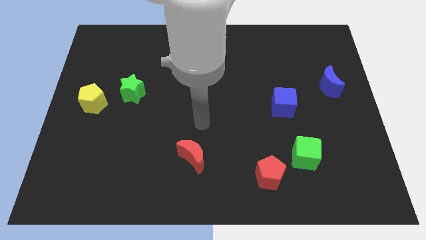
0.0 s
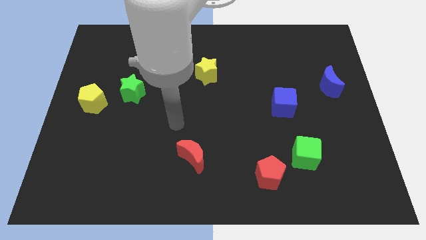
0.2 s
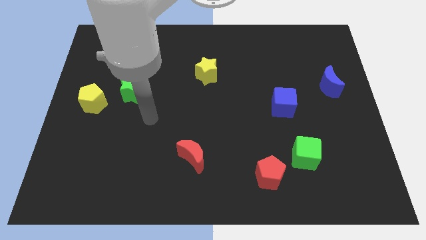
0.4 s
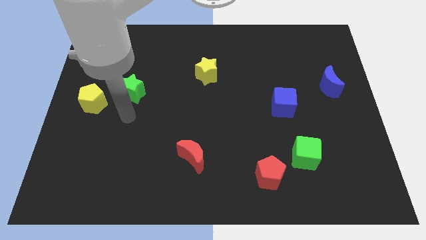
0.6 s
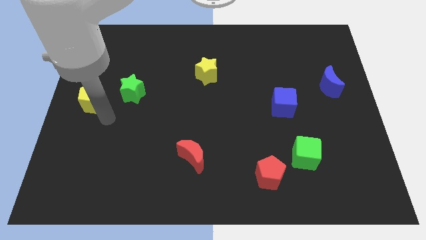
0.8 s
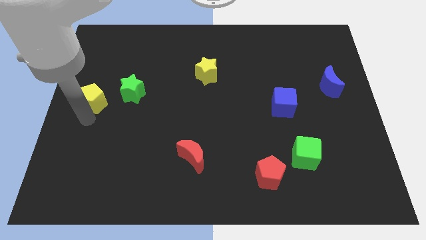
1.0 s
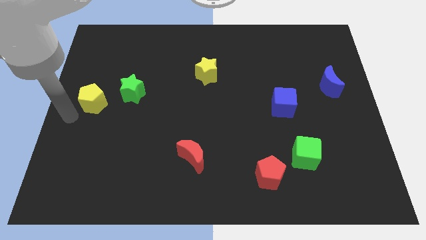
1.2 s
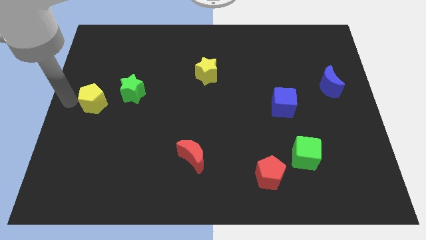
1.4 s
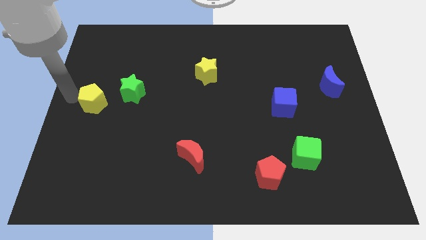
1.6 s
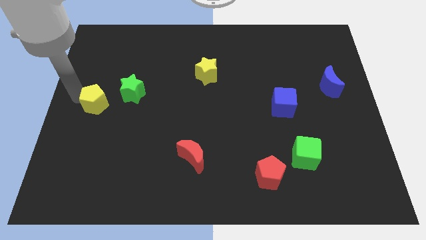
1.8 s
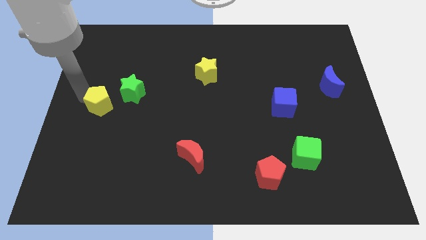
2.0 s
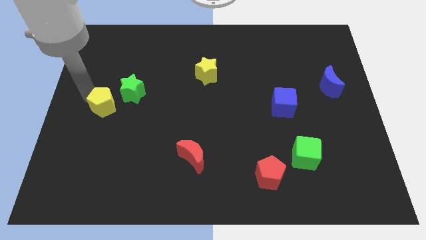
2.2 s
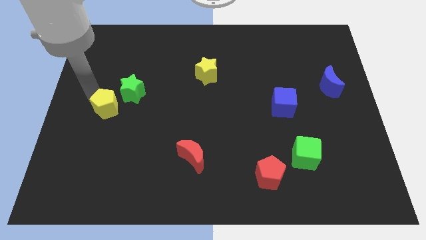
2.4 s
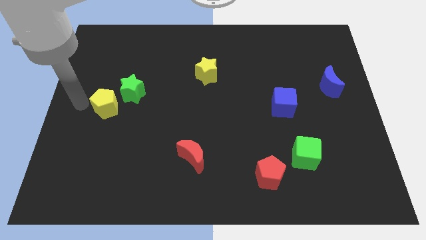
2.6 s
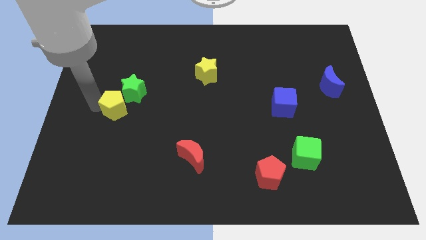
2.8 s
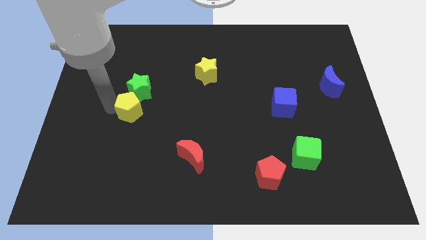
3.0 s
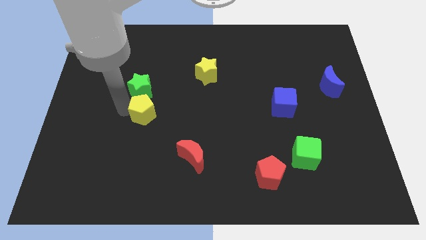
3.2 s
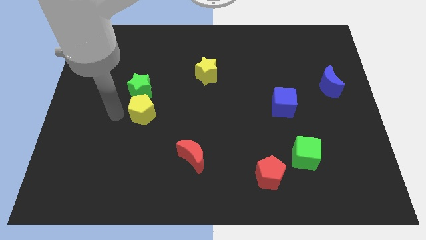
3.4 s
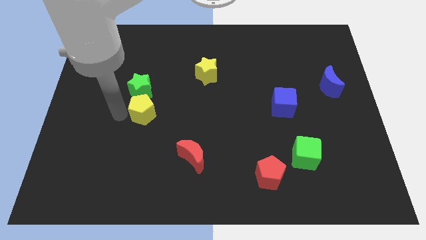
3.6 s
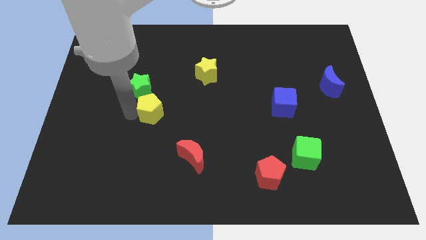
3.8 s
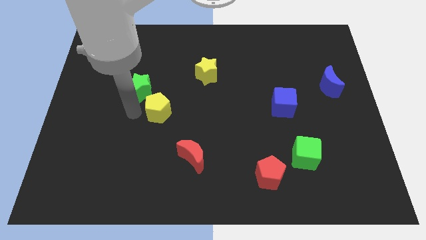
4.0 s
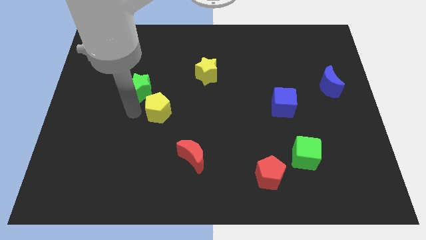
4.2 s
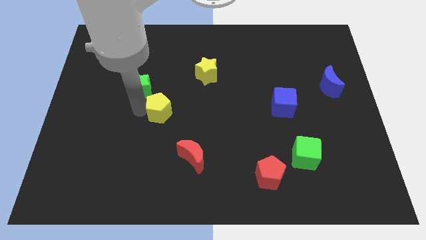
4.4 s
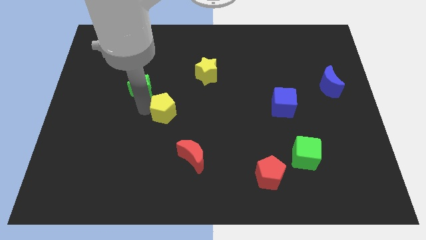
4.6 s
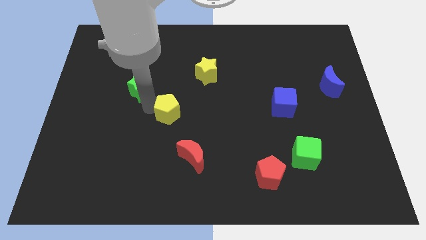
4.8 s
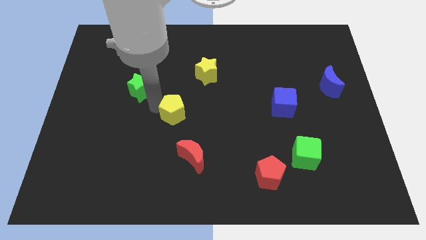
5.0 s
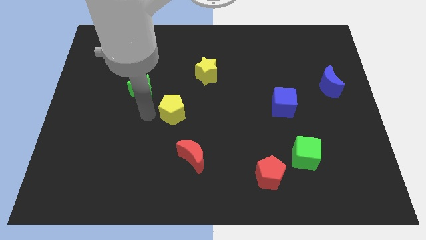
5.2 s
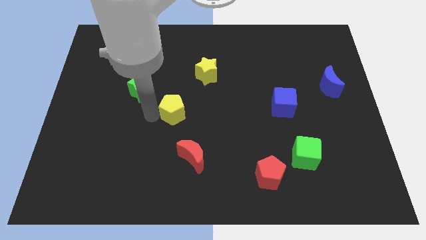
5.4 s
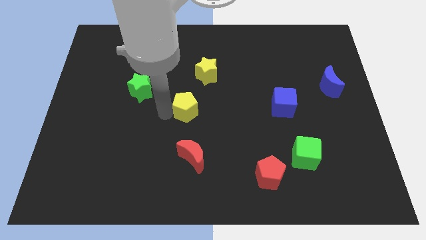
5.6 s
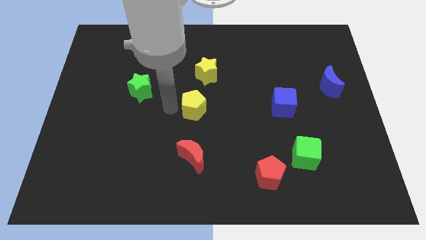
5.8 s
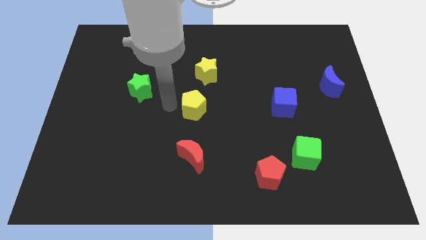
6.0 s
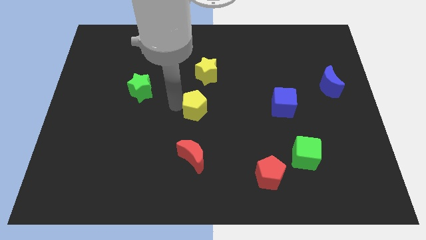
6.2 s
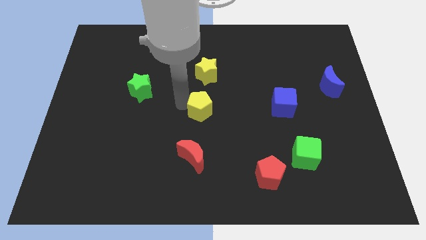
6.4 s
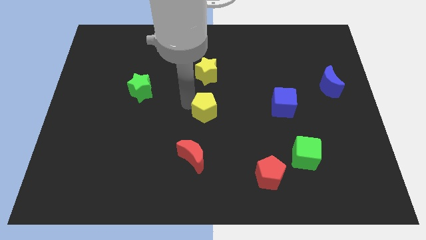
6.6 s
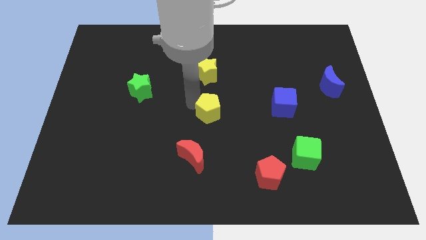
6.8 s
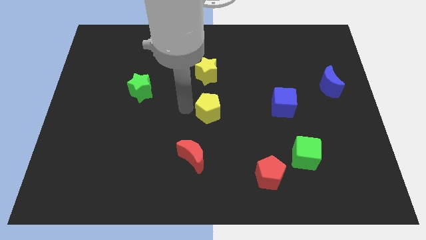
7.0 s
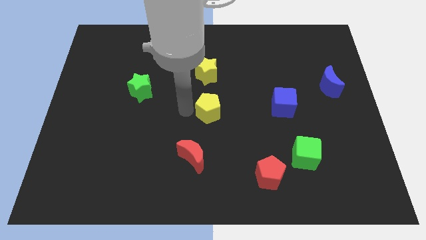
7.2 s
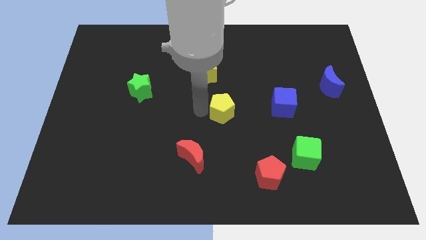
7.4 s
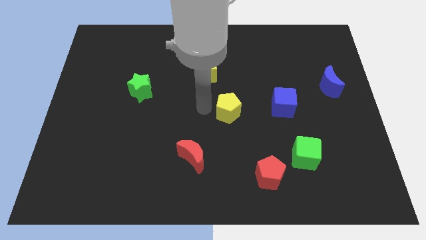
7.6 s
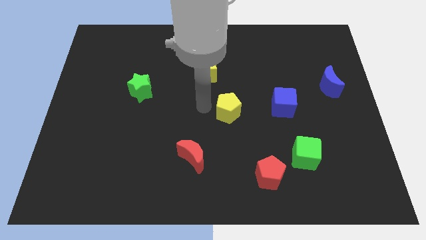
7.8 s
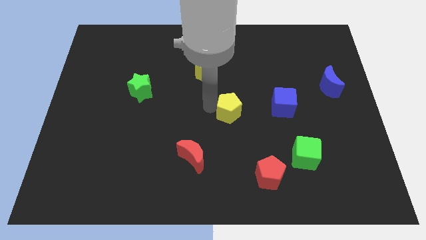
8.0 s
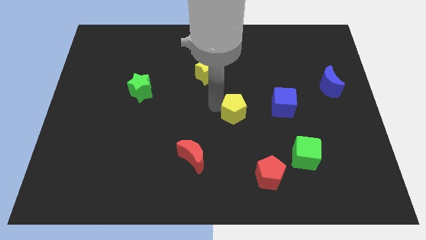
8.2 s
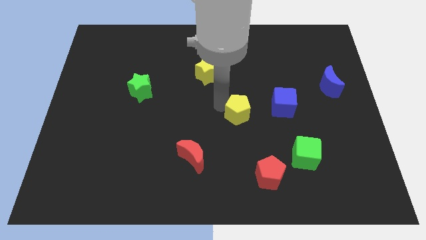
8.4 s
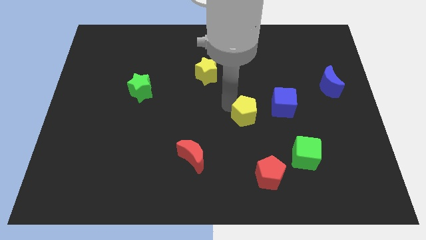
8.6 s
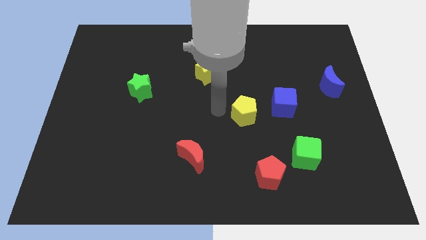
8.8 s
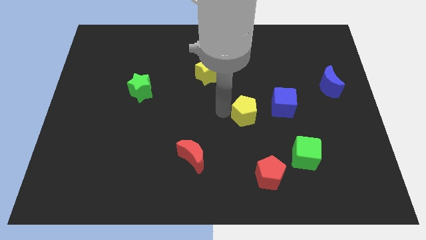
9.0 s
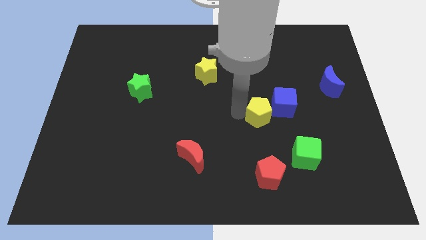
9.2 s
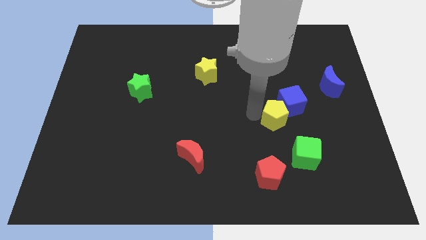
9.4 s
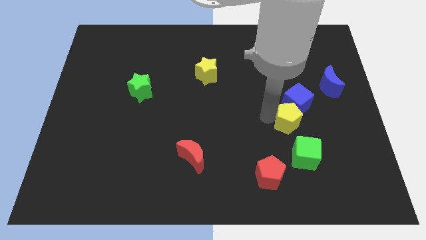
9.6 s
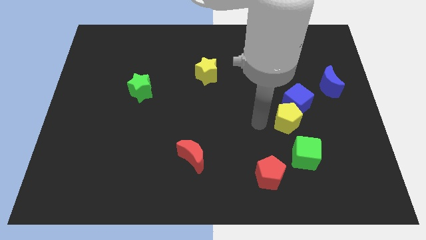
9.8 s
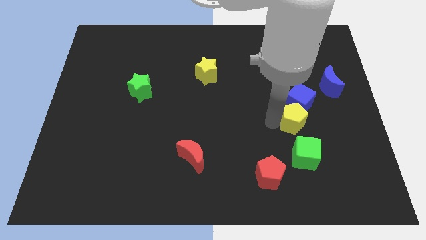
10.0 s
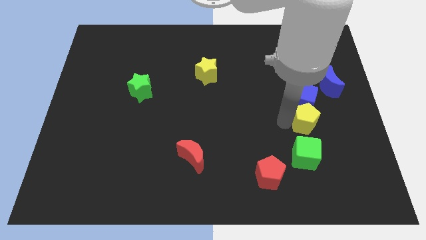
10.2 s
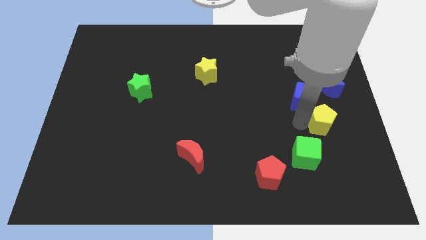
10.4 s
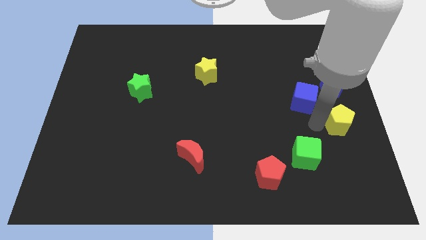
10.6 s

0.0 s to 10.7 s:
move the yellow pentagon to the center right
